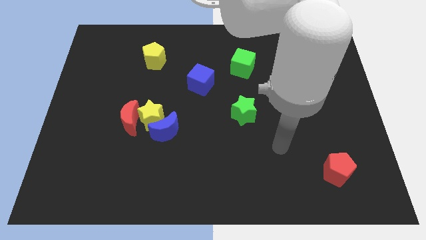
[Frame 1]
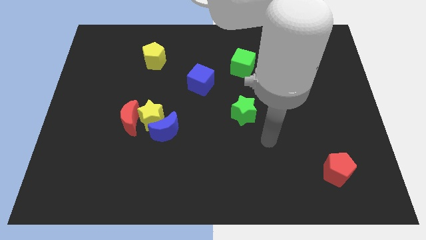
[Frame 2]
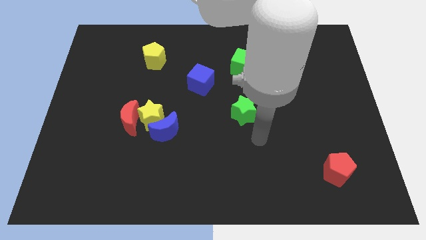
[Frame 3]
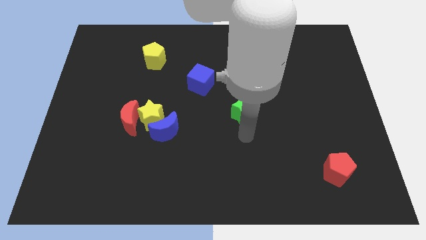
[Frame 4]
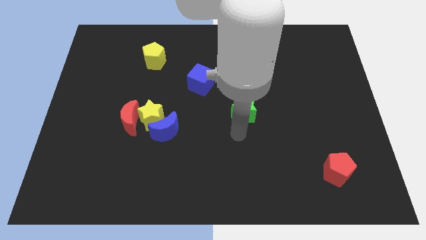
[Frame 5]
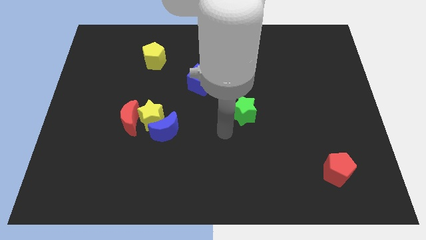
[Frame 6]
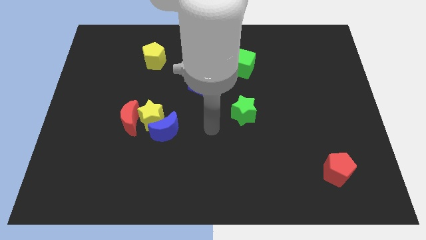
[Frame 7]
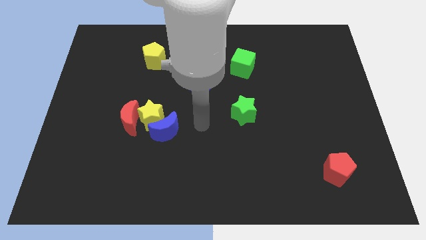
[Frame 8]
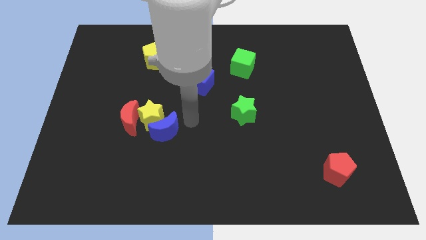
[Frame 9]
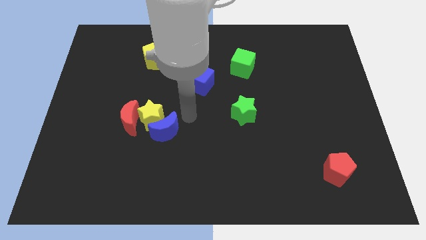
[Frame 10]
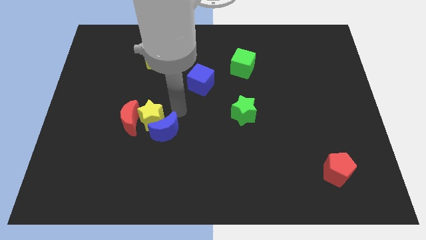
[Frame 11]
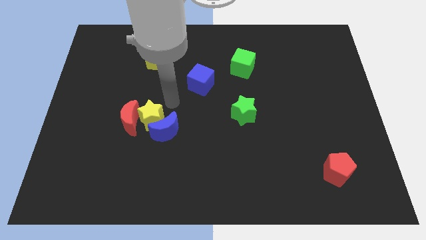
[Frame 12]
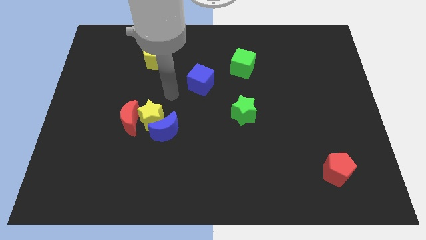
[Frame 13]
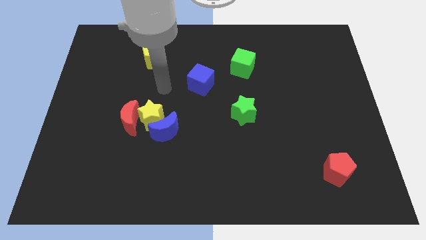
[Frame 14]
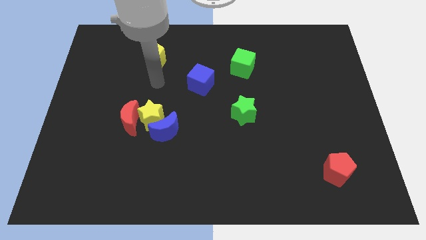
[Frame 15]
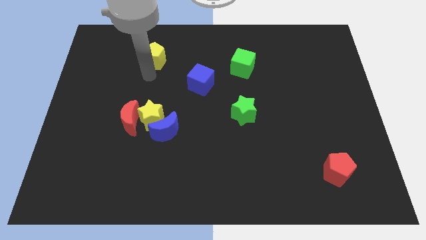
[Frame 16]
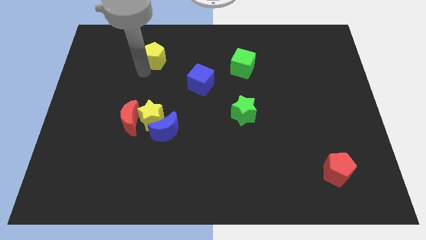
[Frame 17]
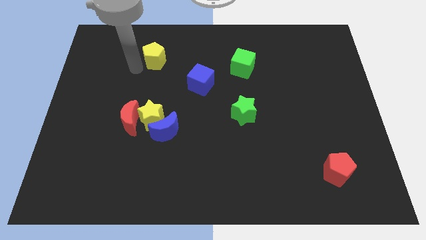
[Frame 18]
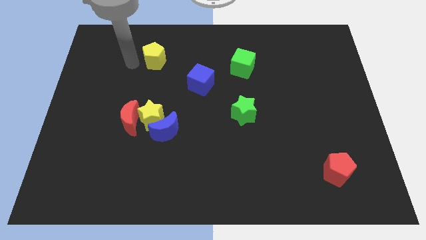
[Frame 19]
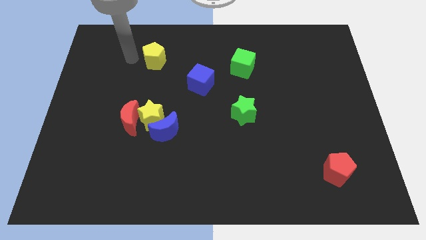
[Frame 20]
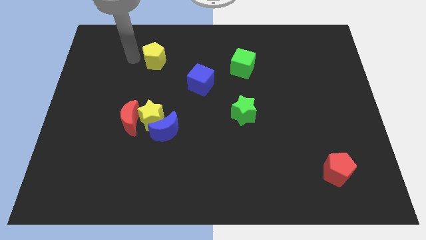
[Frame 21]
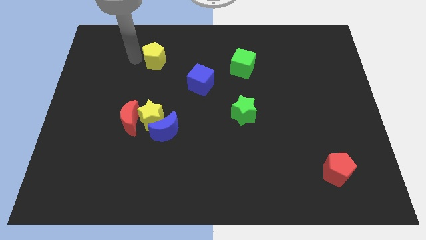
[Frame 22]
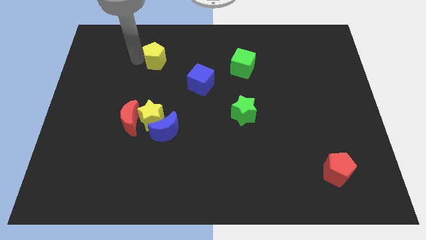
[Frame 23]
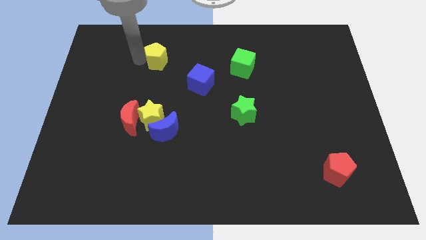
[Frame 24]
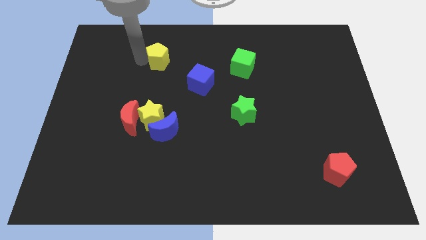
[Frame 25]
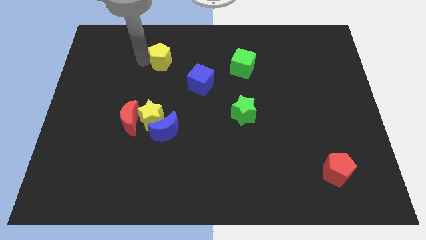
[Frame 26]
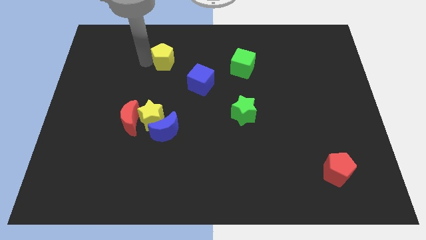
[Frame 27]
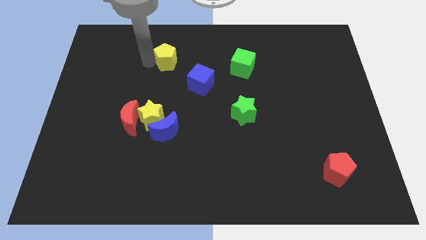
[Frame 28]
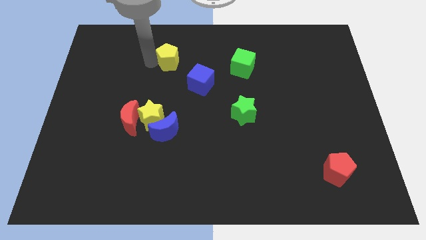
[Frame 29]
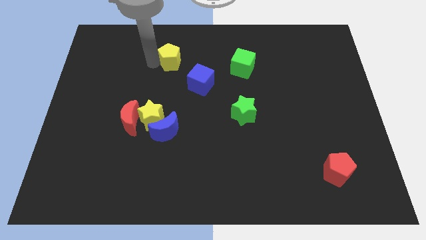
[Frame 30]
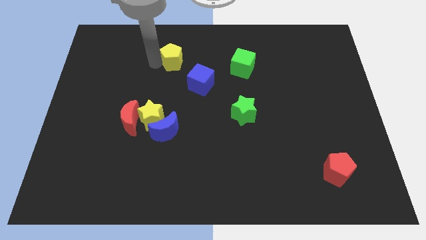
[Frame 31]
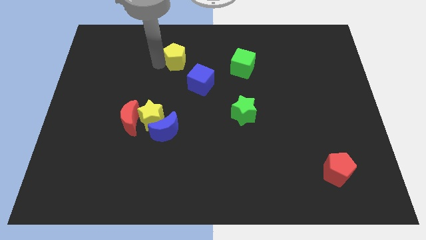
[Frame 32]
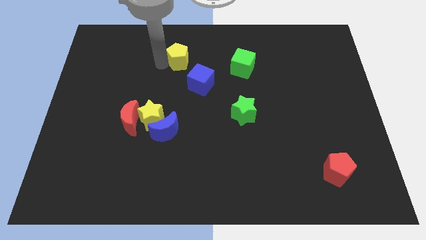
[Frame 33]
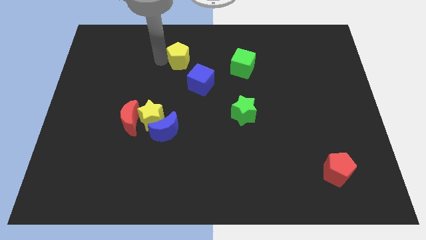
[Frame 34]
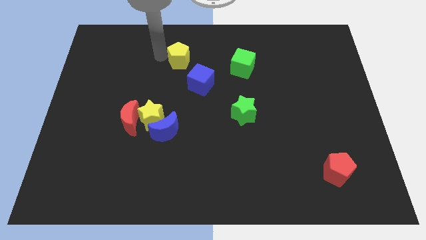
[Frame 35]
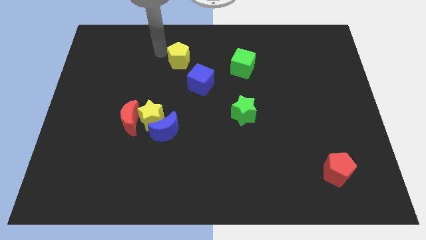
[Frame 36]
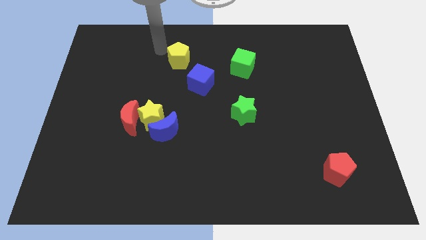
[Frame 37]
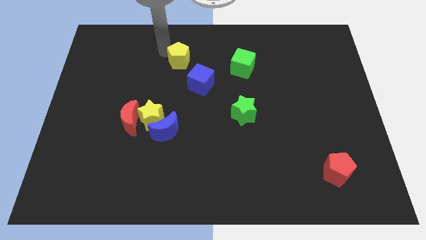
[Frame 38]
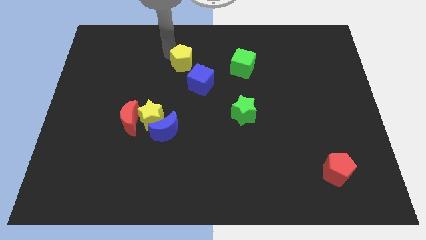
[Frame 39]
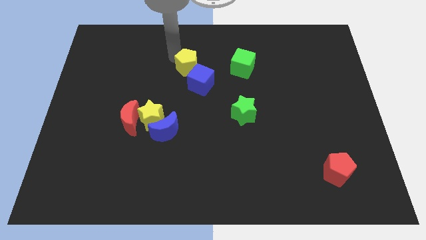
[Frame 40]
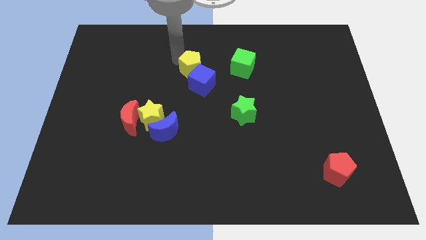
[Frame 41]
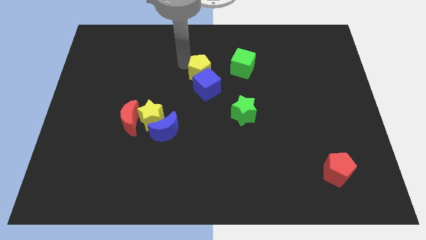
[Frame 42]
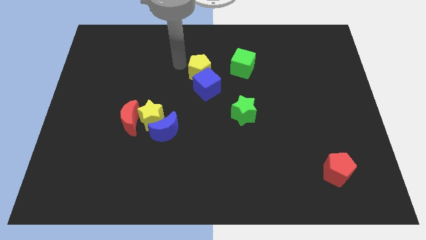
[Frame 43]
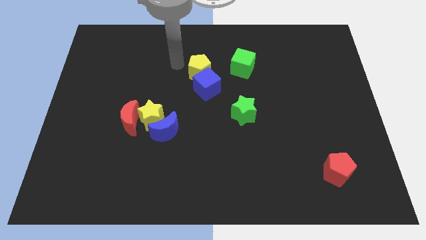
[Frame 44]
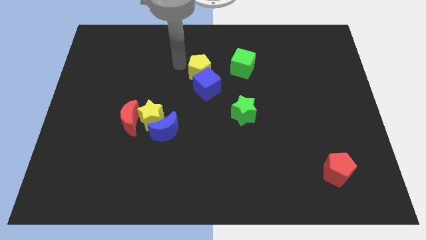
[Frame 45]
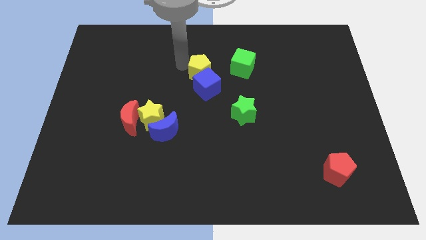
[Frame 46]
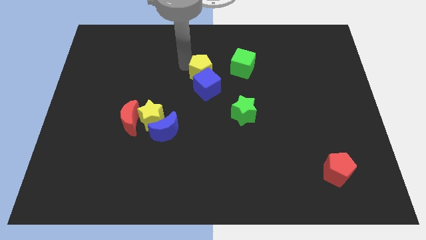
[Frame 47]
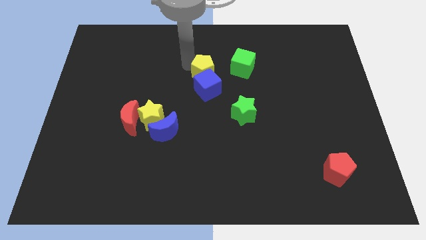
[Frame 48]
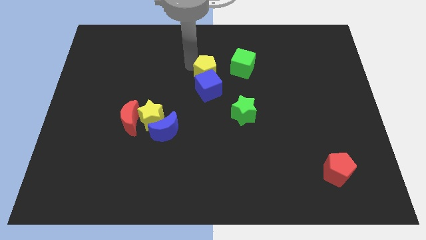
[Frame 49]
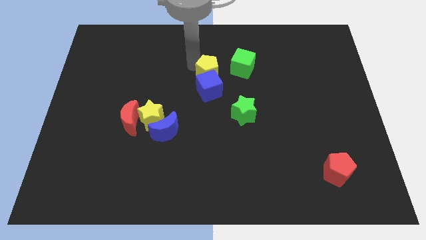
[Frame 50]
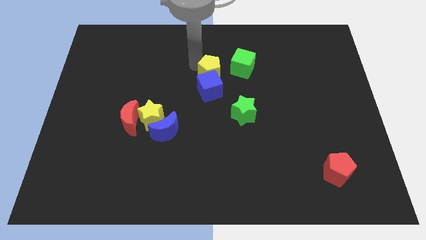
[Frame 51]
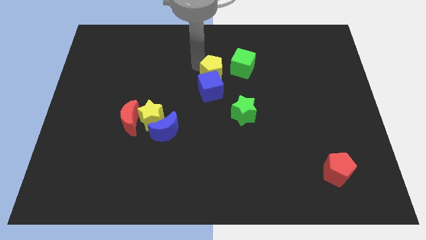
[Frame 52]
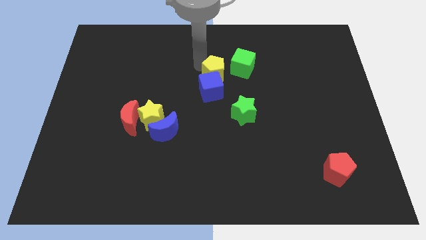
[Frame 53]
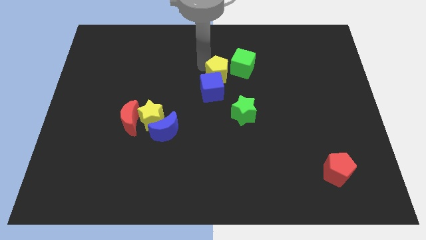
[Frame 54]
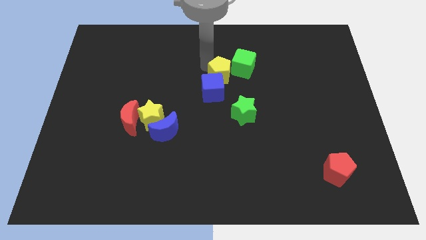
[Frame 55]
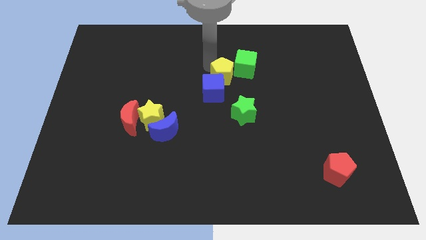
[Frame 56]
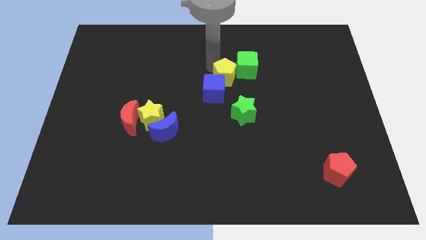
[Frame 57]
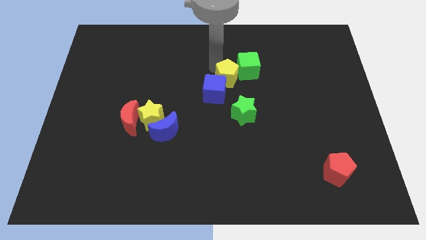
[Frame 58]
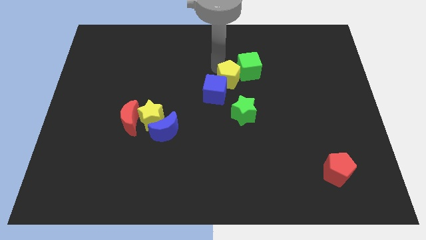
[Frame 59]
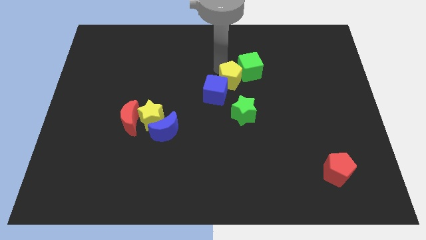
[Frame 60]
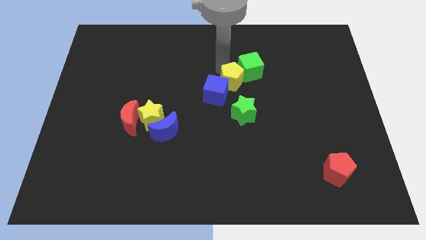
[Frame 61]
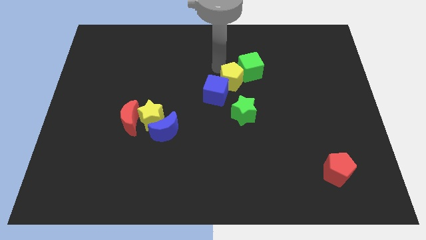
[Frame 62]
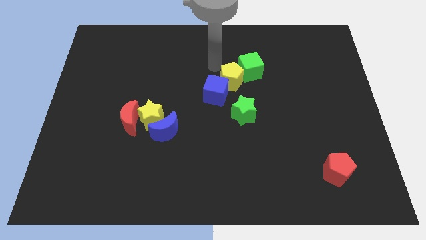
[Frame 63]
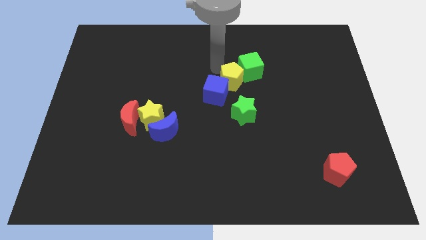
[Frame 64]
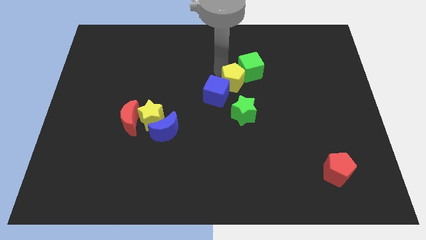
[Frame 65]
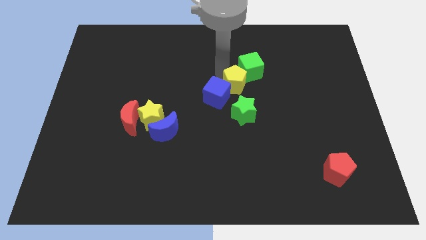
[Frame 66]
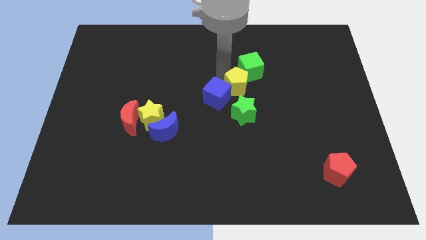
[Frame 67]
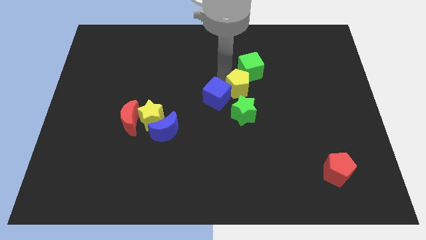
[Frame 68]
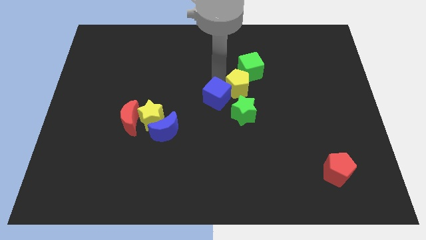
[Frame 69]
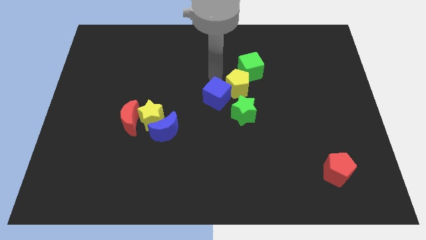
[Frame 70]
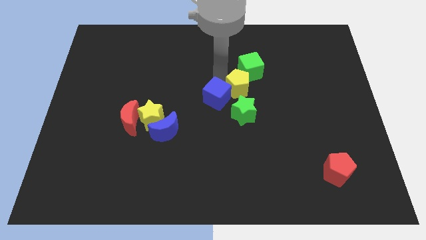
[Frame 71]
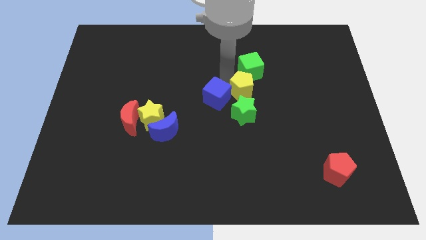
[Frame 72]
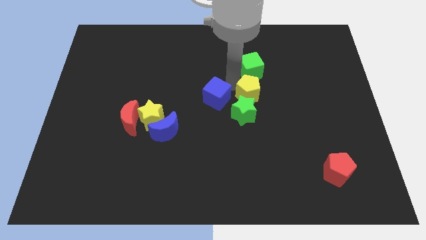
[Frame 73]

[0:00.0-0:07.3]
put the yellow pentagon to the top right side of the green star

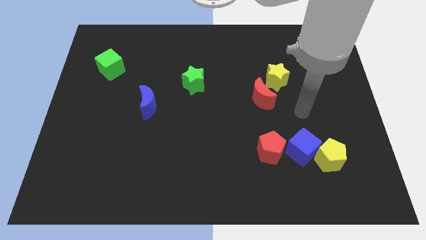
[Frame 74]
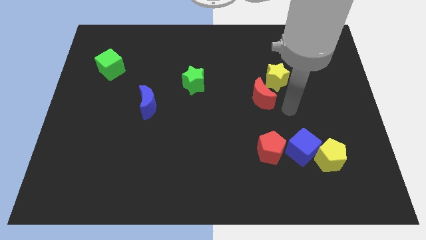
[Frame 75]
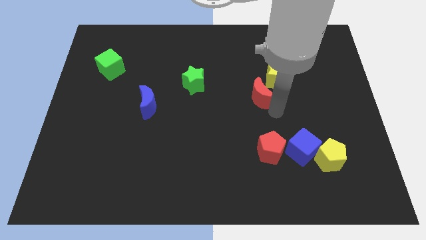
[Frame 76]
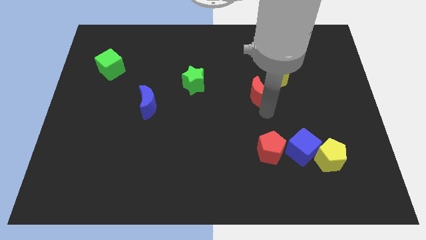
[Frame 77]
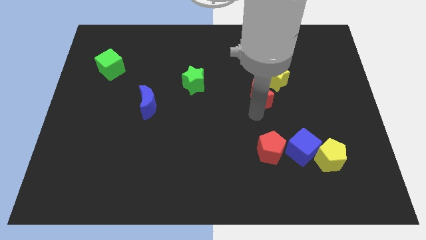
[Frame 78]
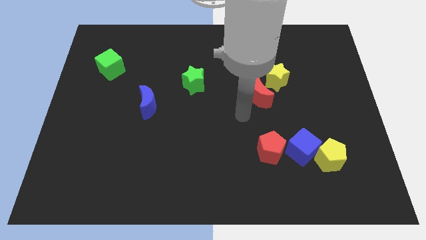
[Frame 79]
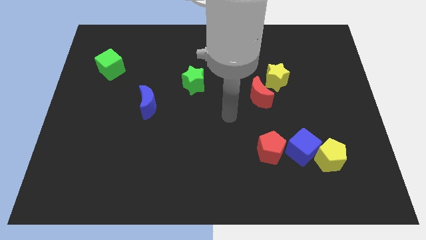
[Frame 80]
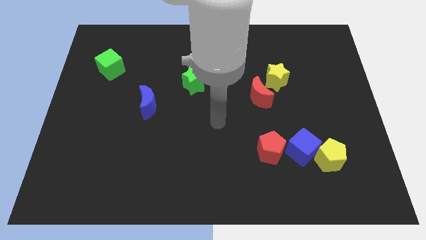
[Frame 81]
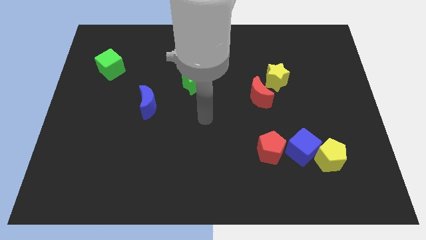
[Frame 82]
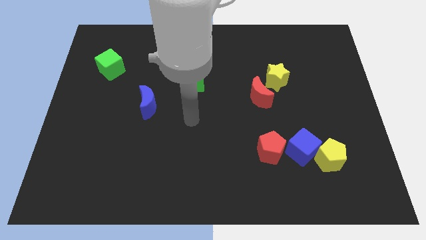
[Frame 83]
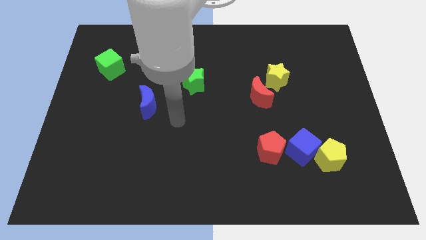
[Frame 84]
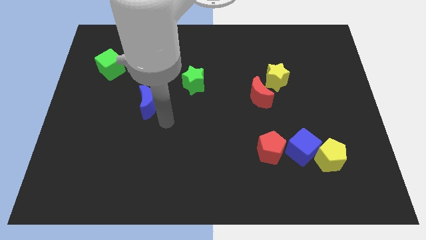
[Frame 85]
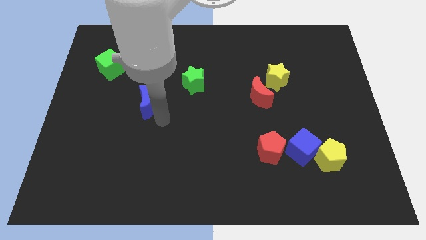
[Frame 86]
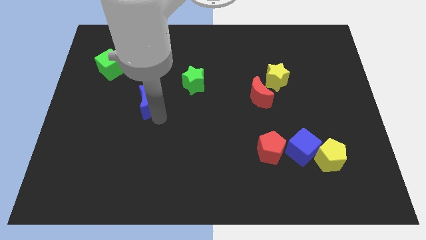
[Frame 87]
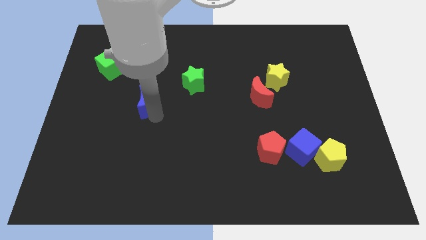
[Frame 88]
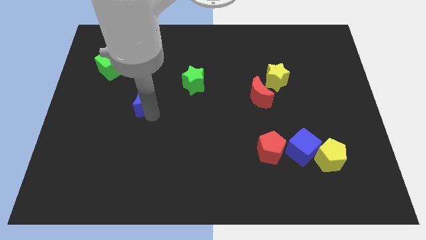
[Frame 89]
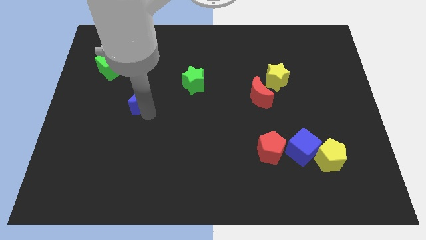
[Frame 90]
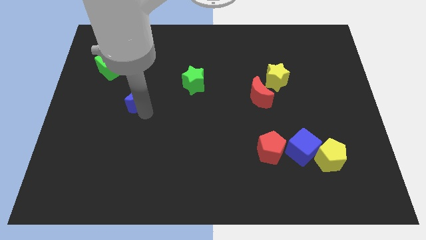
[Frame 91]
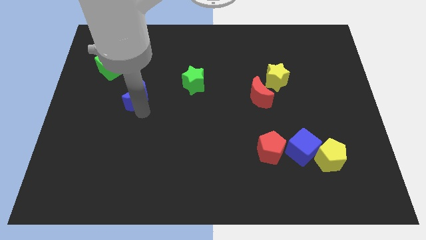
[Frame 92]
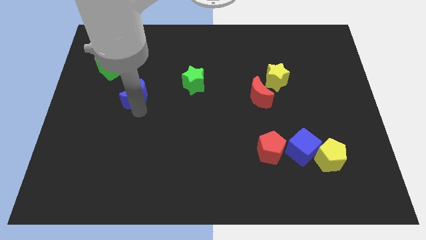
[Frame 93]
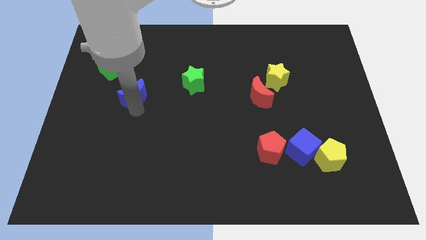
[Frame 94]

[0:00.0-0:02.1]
slide the blue moon to the bottom right of the green cube
